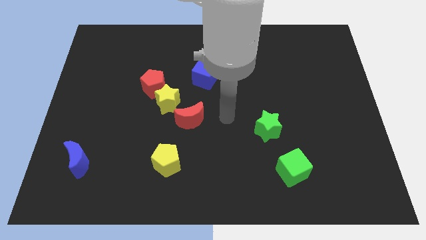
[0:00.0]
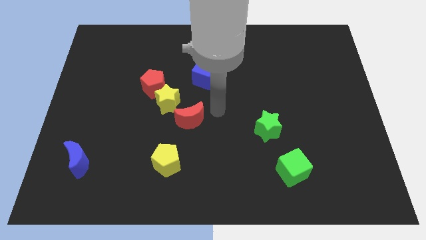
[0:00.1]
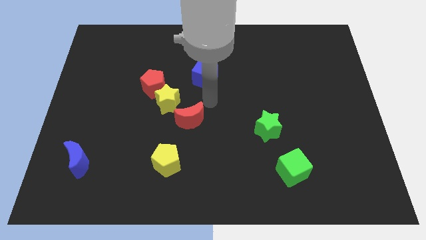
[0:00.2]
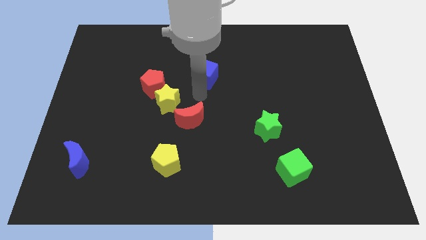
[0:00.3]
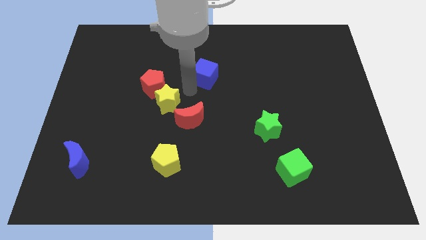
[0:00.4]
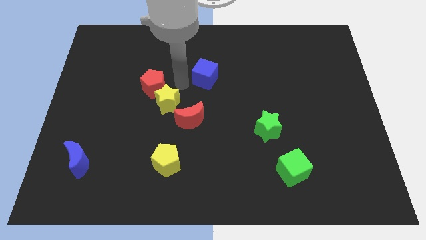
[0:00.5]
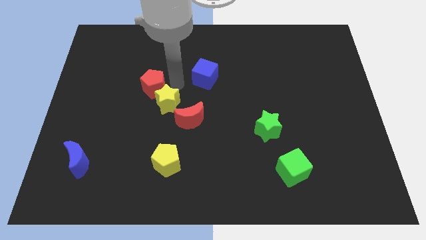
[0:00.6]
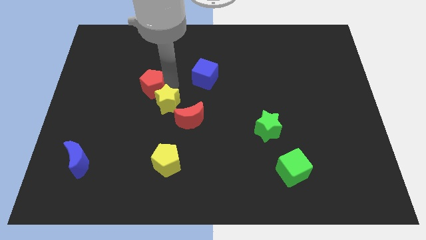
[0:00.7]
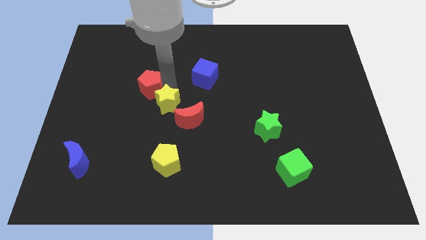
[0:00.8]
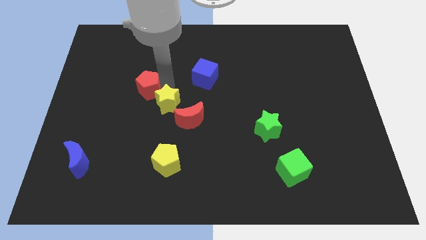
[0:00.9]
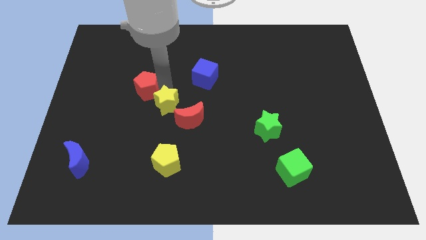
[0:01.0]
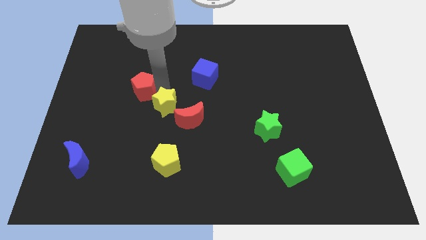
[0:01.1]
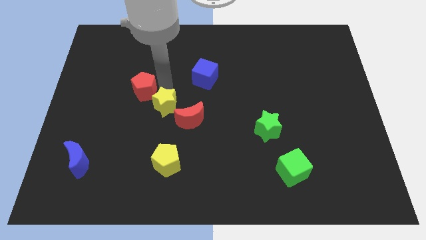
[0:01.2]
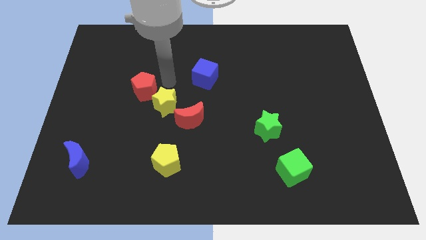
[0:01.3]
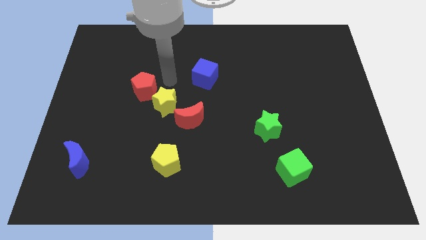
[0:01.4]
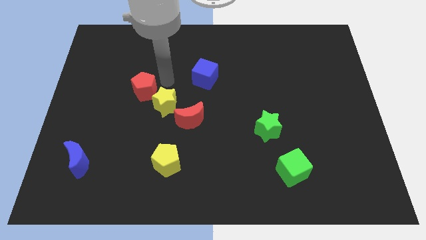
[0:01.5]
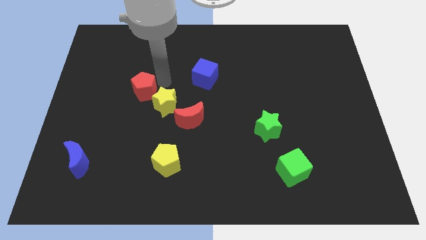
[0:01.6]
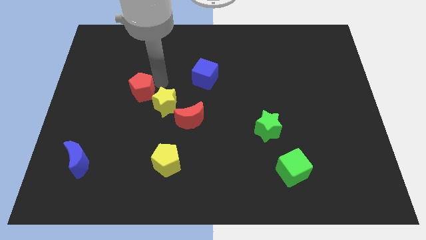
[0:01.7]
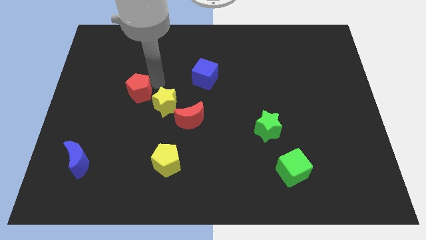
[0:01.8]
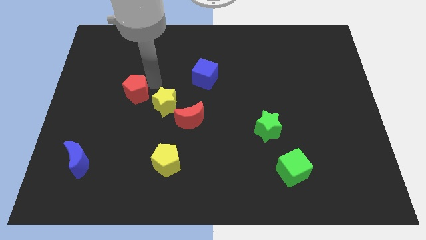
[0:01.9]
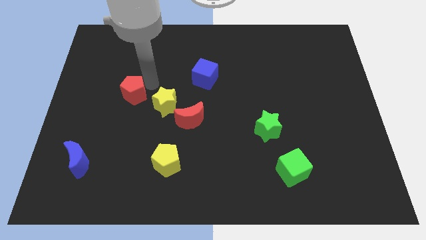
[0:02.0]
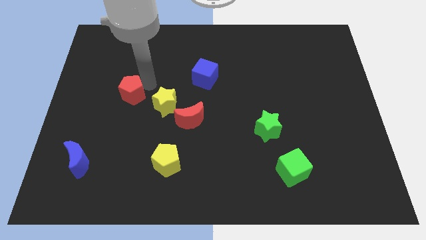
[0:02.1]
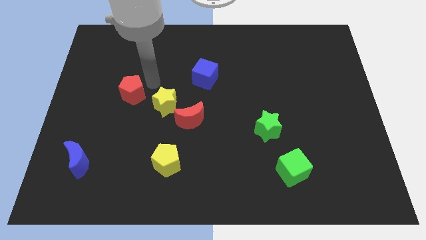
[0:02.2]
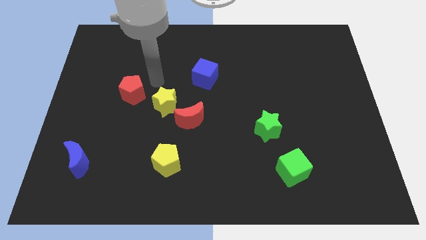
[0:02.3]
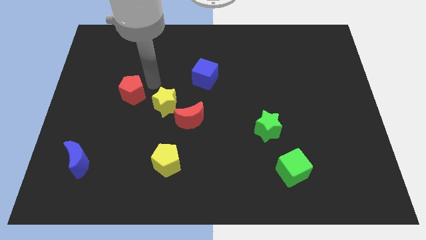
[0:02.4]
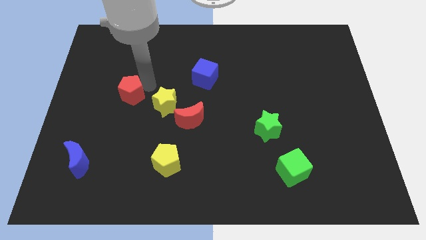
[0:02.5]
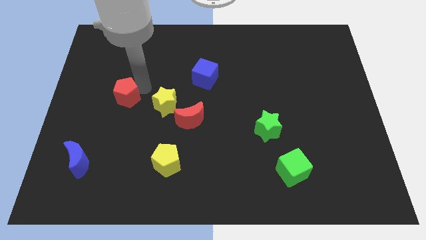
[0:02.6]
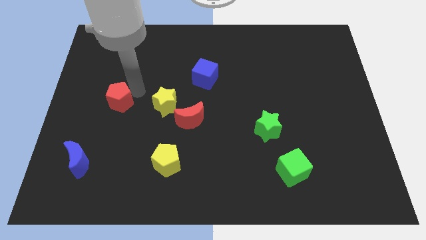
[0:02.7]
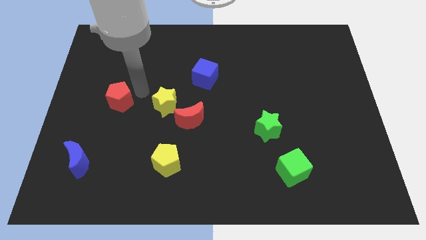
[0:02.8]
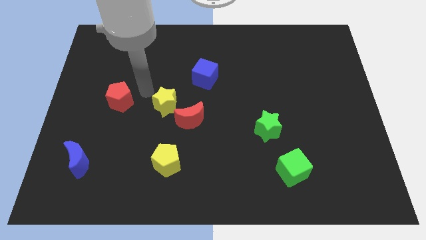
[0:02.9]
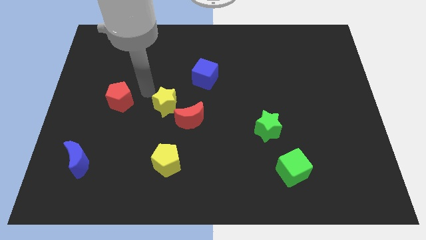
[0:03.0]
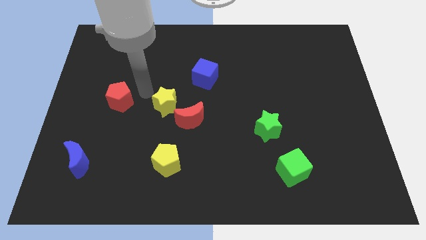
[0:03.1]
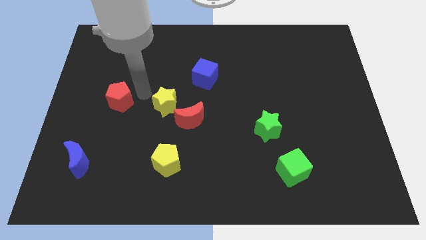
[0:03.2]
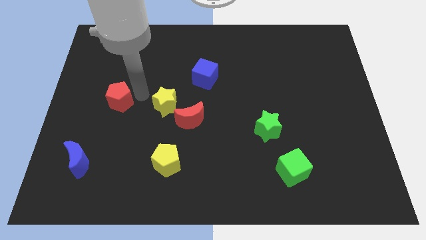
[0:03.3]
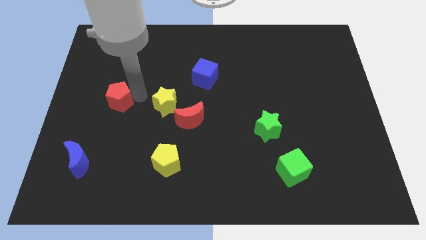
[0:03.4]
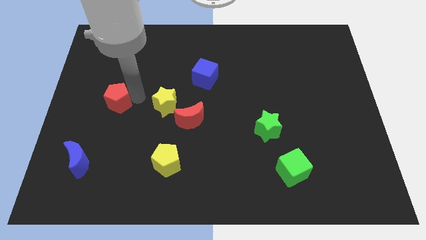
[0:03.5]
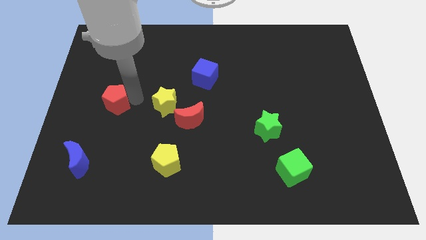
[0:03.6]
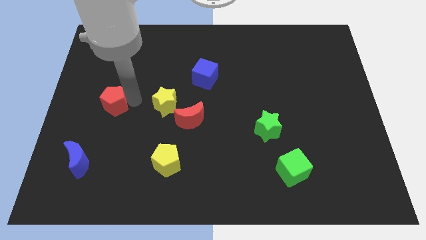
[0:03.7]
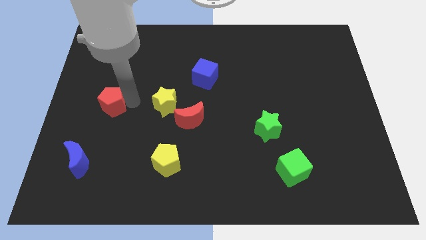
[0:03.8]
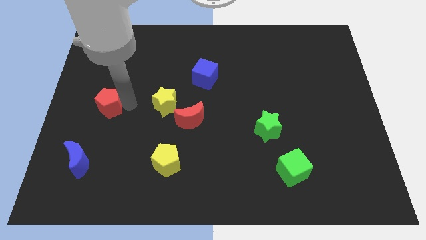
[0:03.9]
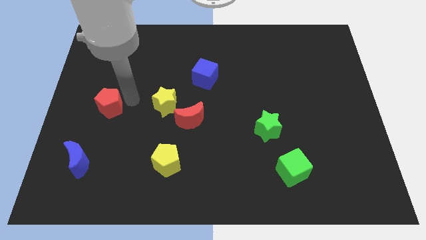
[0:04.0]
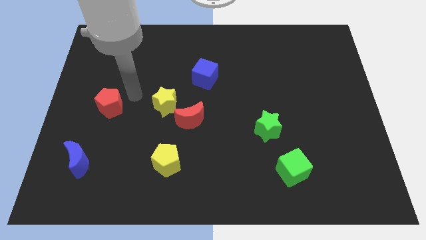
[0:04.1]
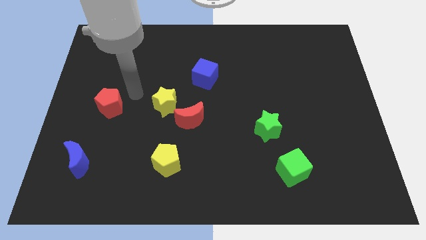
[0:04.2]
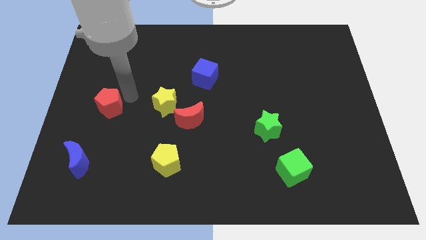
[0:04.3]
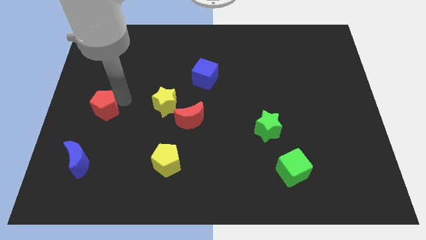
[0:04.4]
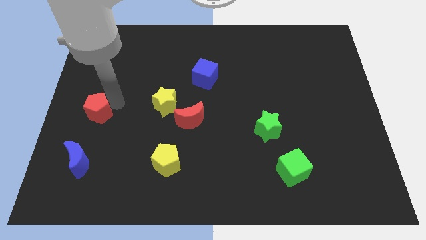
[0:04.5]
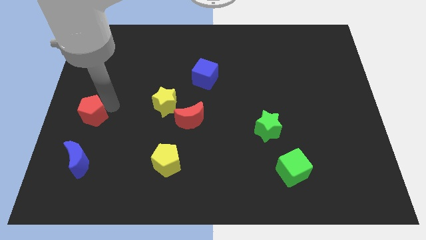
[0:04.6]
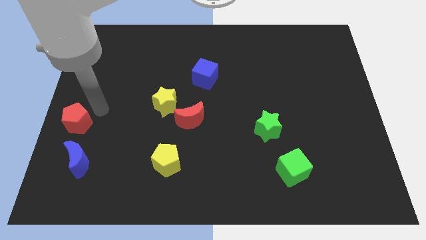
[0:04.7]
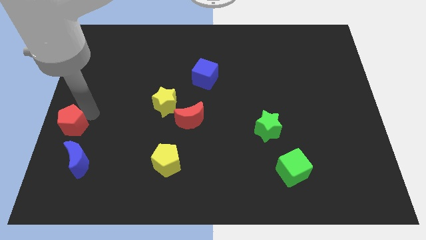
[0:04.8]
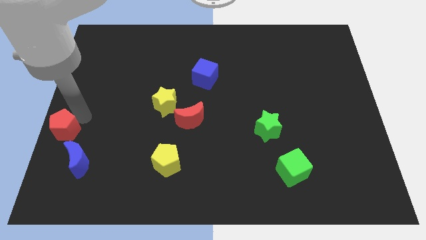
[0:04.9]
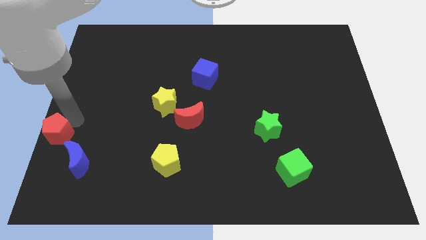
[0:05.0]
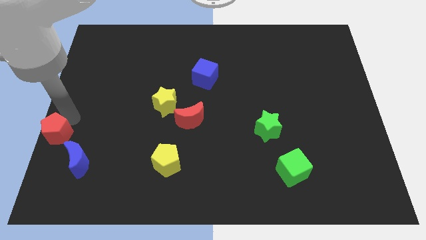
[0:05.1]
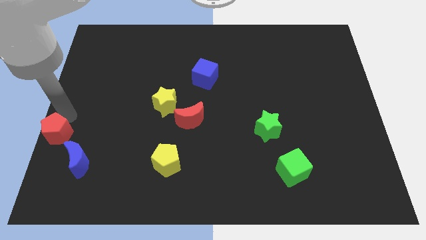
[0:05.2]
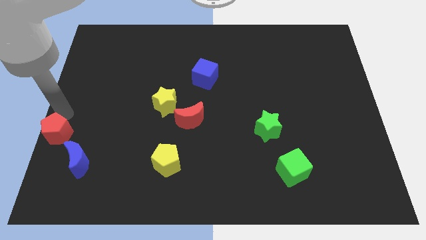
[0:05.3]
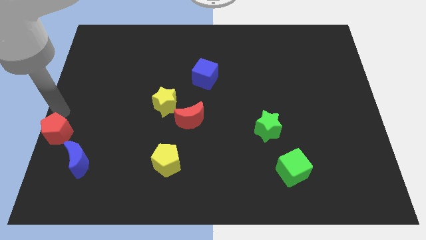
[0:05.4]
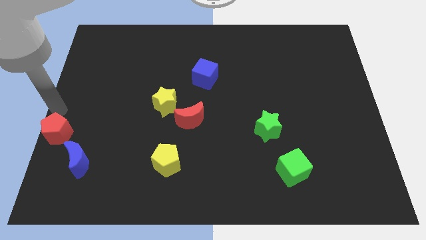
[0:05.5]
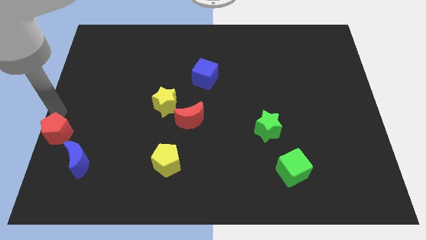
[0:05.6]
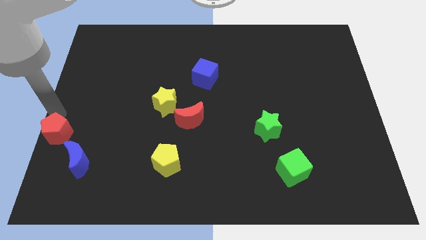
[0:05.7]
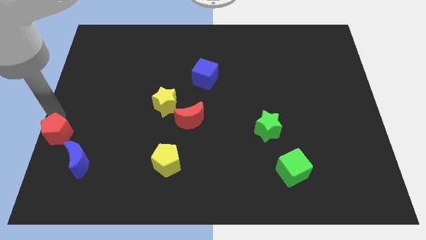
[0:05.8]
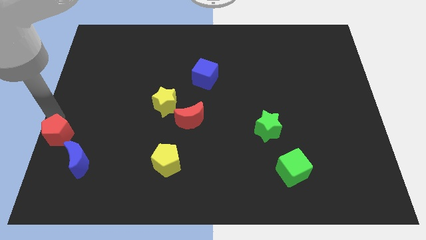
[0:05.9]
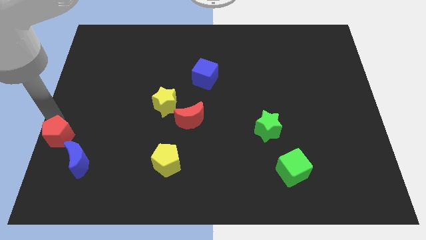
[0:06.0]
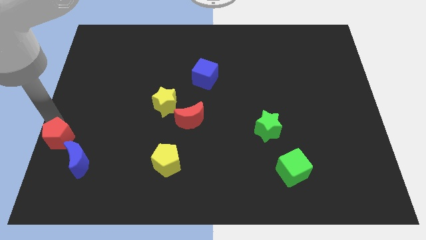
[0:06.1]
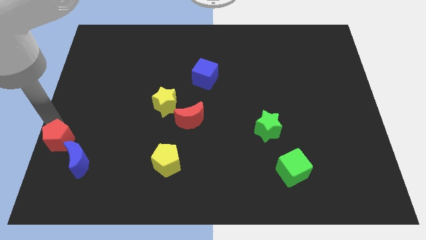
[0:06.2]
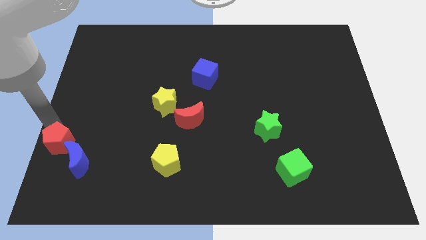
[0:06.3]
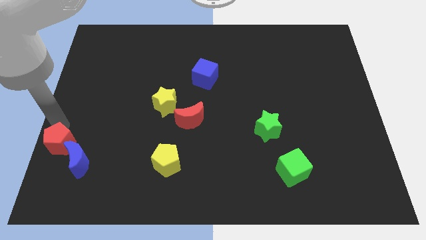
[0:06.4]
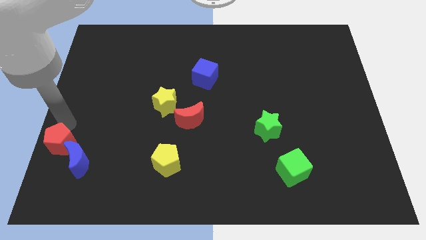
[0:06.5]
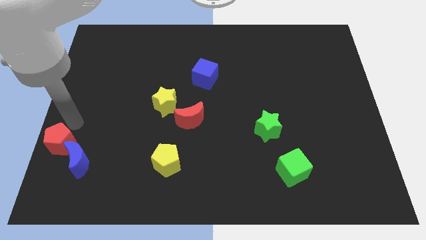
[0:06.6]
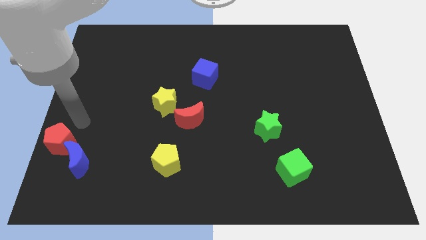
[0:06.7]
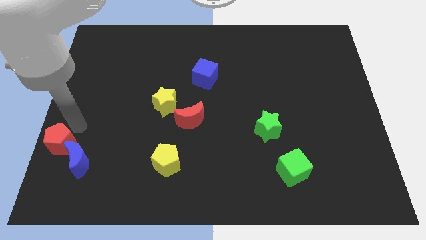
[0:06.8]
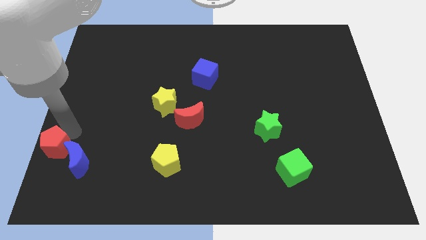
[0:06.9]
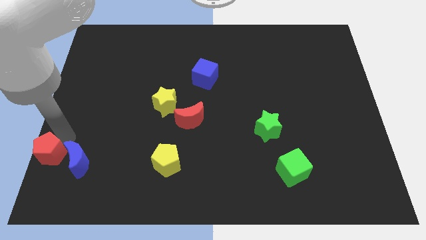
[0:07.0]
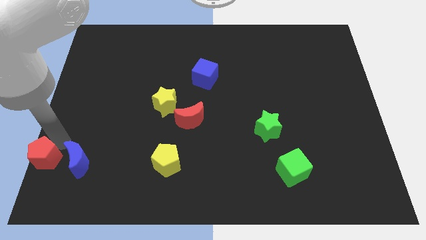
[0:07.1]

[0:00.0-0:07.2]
move the red pentagon to the bottom left corner
